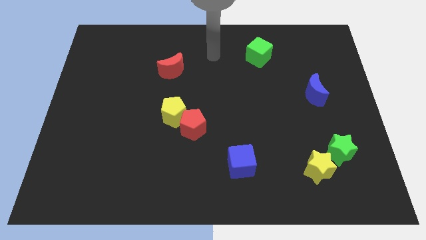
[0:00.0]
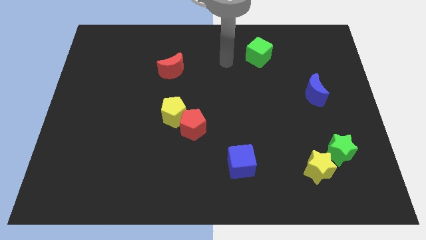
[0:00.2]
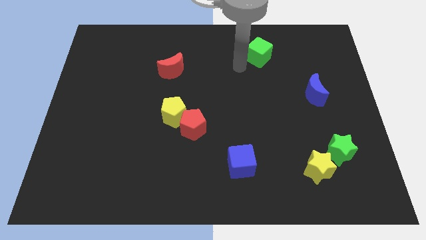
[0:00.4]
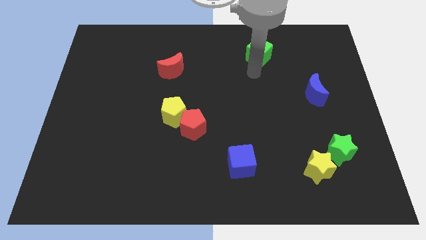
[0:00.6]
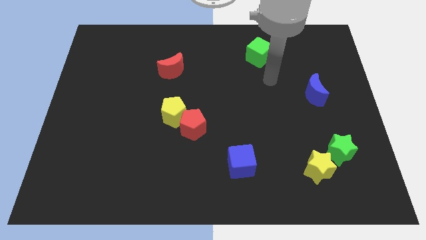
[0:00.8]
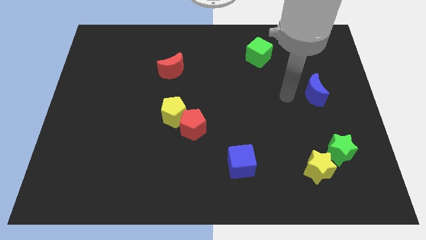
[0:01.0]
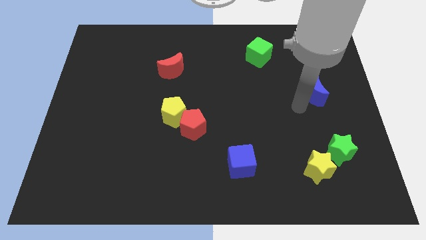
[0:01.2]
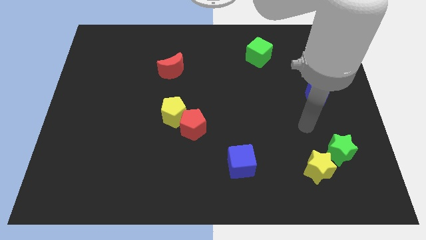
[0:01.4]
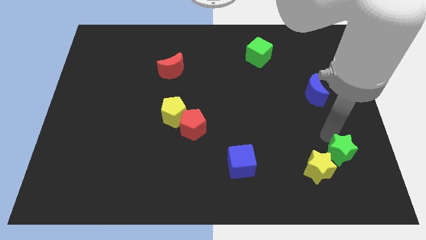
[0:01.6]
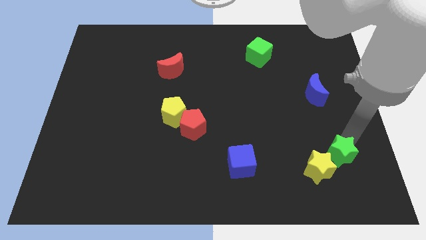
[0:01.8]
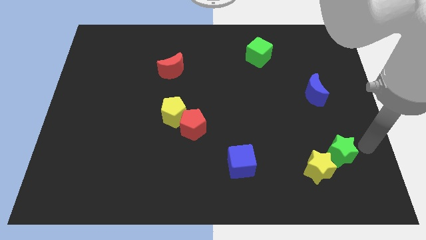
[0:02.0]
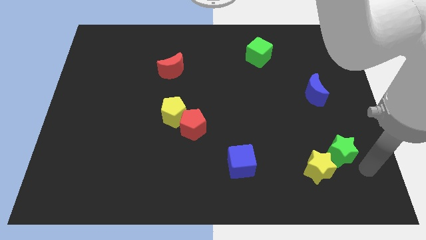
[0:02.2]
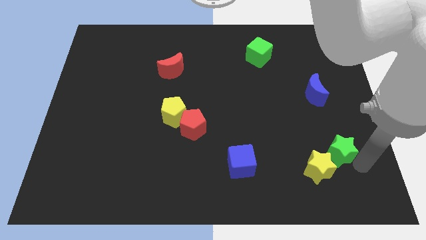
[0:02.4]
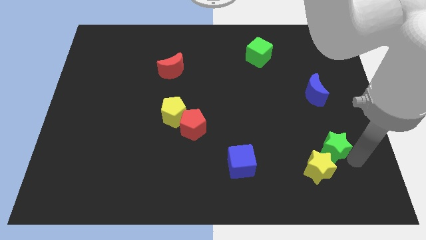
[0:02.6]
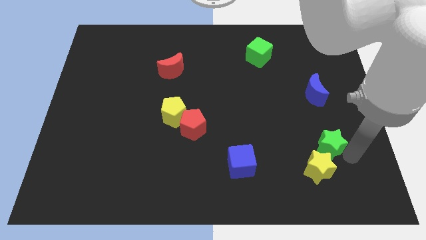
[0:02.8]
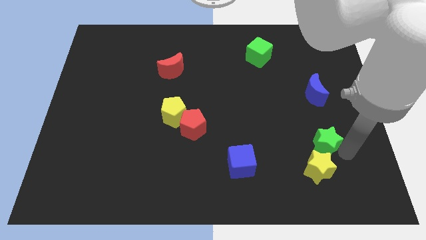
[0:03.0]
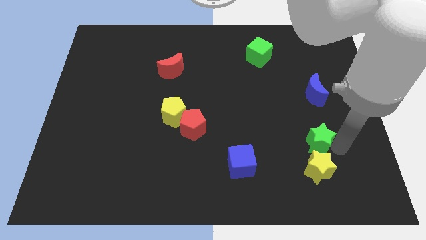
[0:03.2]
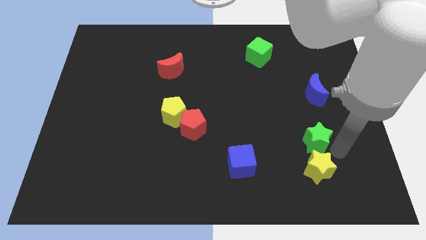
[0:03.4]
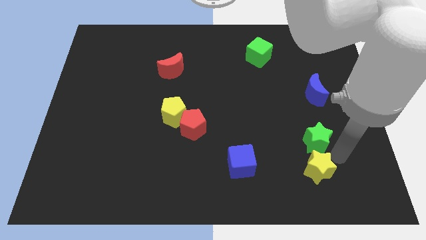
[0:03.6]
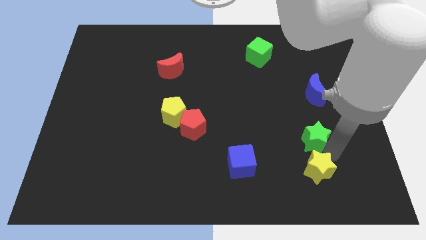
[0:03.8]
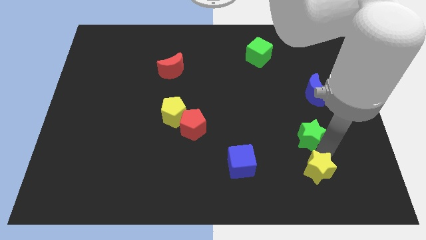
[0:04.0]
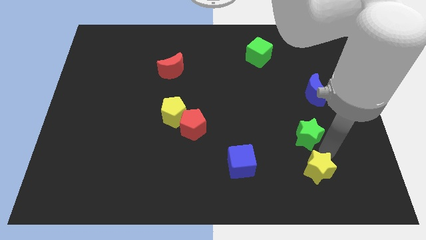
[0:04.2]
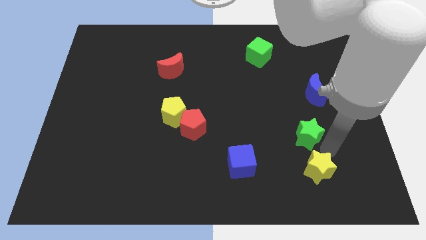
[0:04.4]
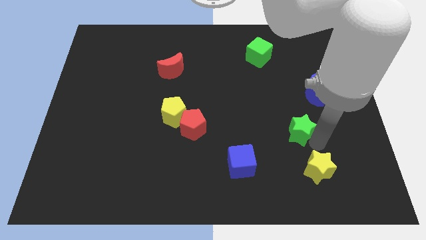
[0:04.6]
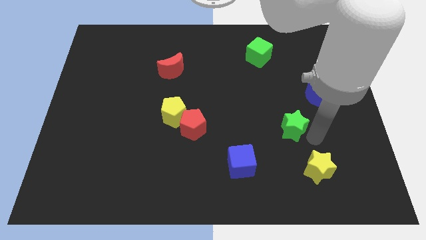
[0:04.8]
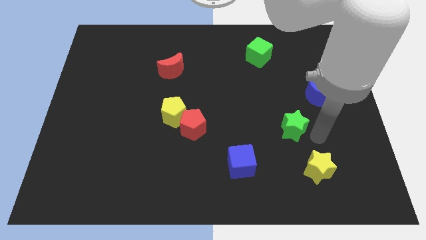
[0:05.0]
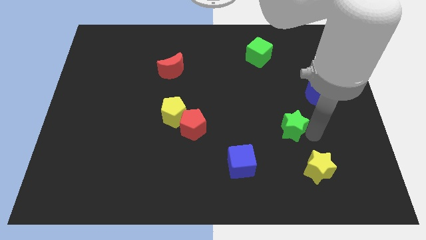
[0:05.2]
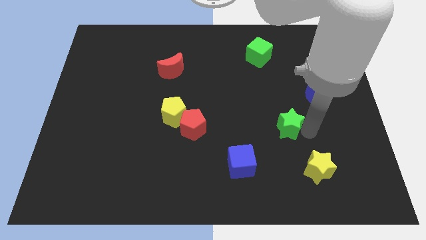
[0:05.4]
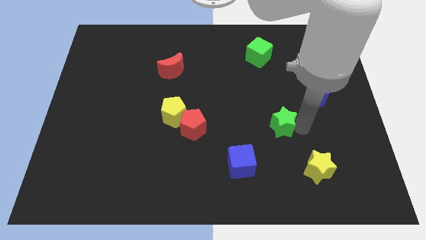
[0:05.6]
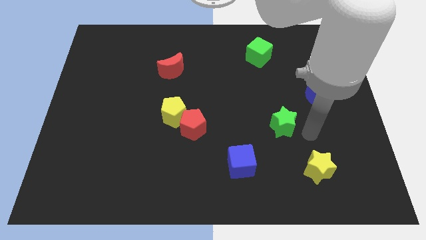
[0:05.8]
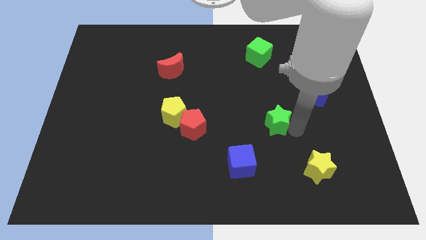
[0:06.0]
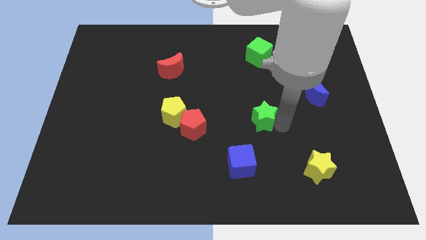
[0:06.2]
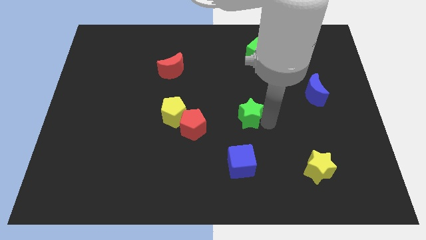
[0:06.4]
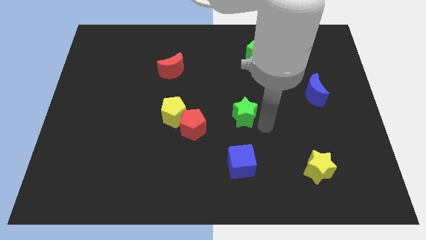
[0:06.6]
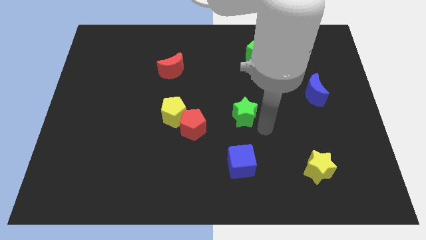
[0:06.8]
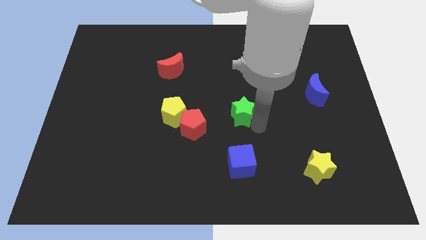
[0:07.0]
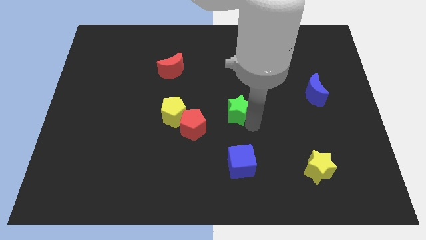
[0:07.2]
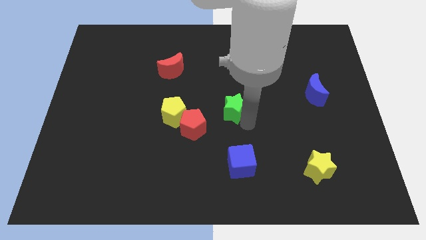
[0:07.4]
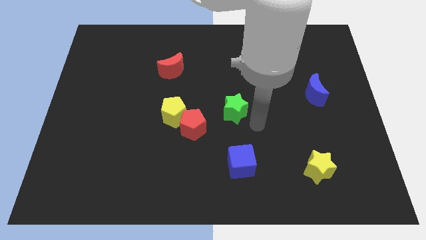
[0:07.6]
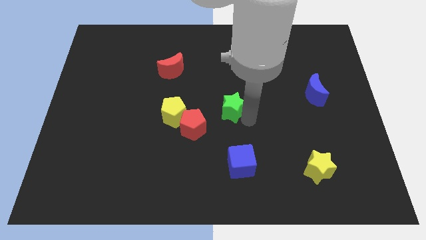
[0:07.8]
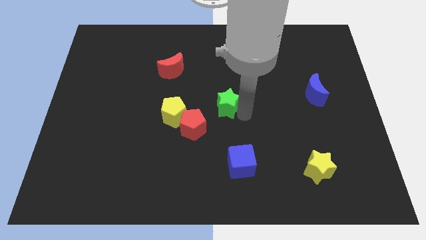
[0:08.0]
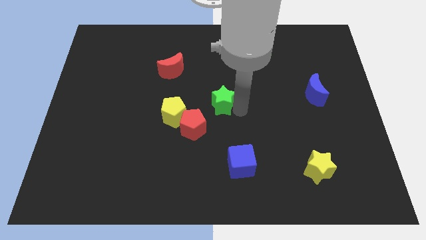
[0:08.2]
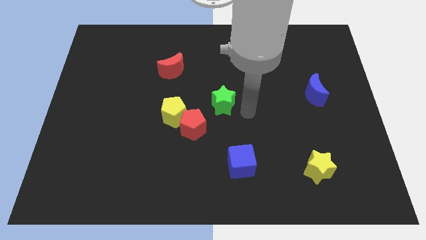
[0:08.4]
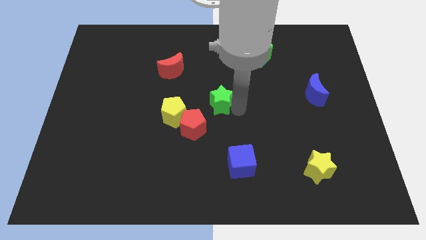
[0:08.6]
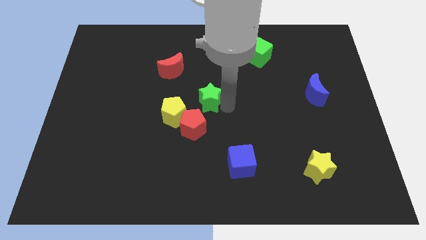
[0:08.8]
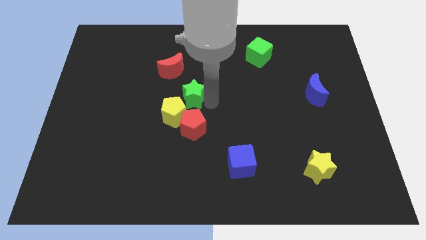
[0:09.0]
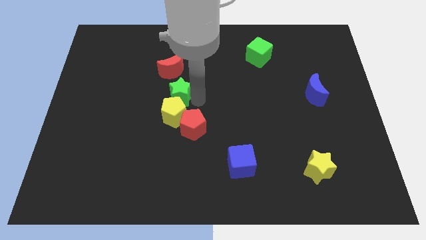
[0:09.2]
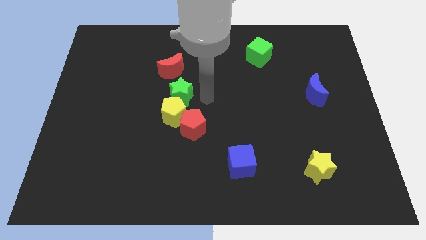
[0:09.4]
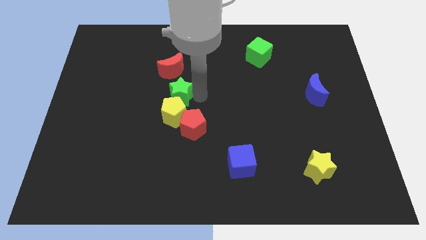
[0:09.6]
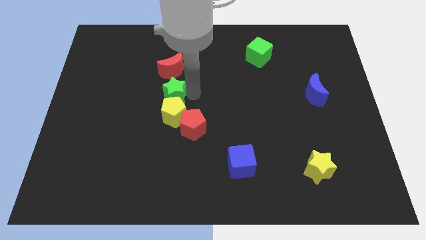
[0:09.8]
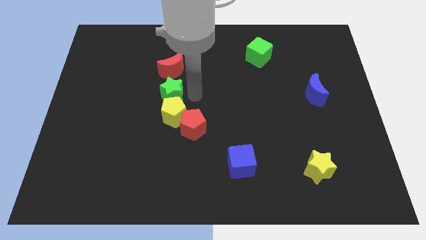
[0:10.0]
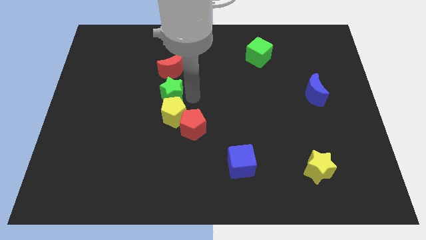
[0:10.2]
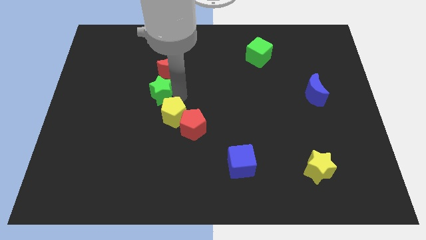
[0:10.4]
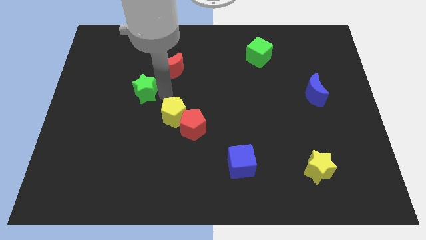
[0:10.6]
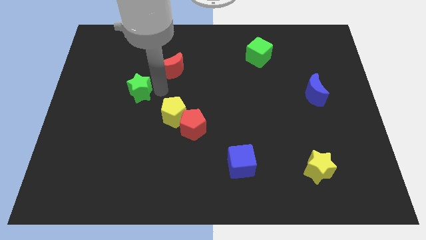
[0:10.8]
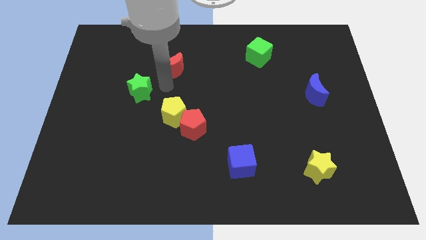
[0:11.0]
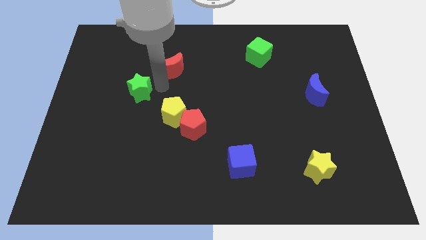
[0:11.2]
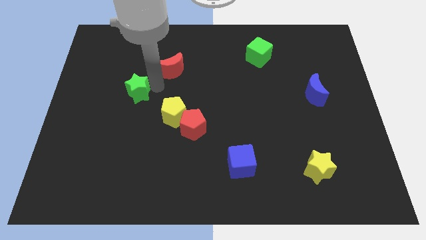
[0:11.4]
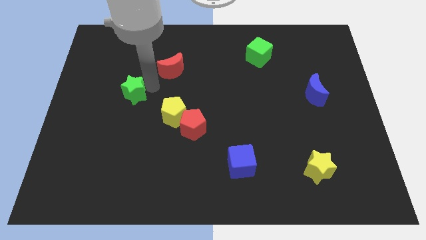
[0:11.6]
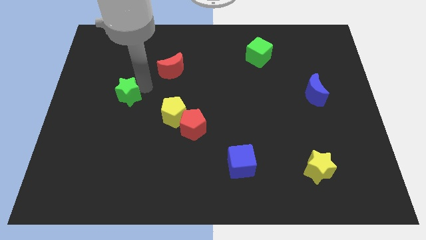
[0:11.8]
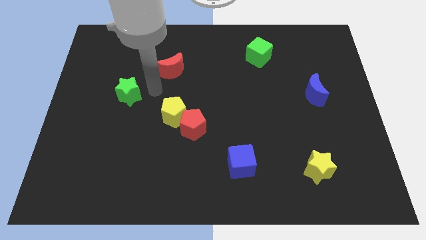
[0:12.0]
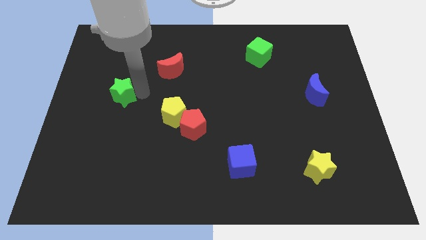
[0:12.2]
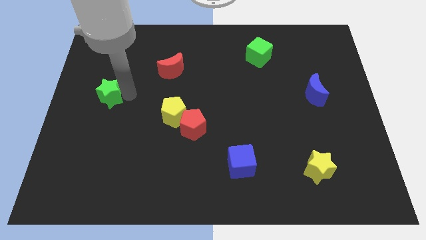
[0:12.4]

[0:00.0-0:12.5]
push the green star to the center left
